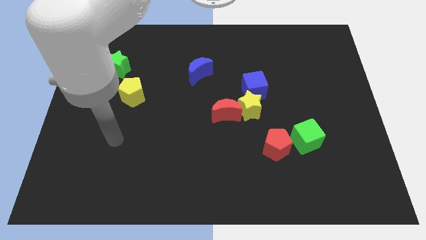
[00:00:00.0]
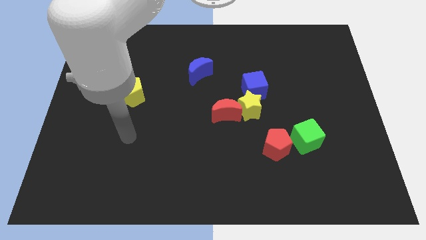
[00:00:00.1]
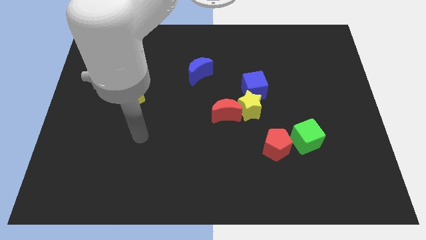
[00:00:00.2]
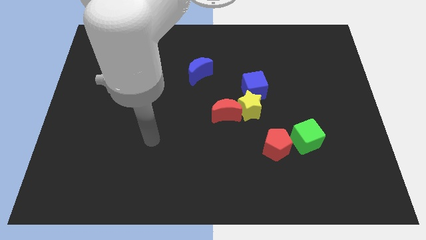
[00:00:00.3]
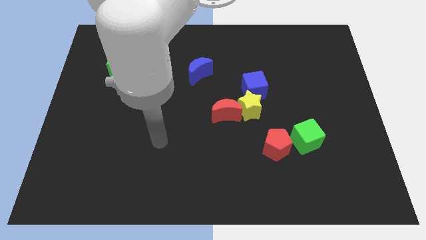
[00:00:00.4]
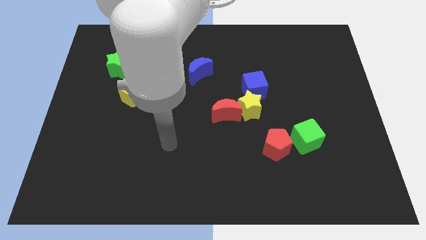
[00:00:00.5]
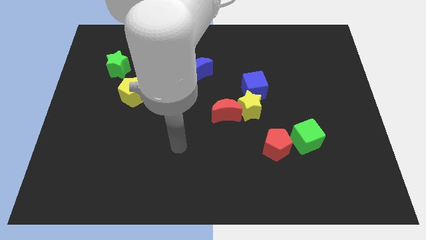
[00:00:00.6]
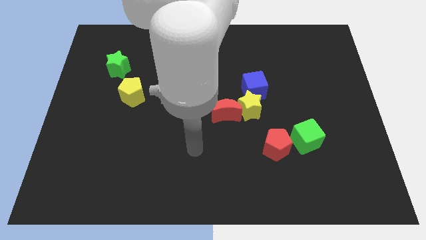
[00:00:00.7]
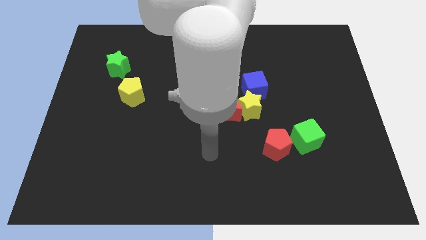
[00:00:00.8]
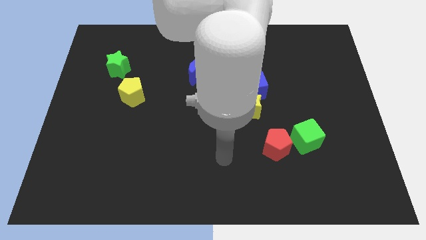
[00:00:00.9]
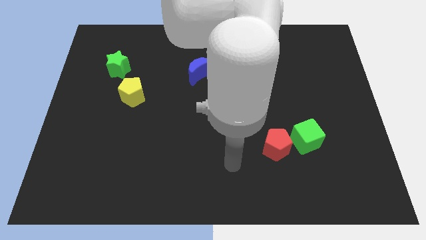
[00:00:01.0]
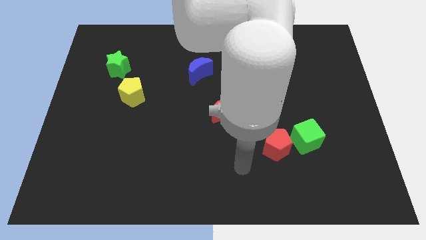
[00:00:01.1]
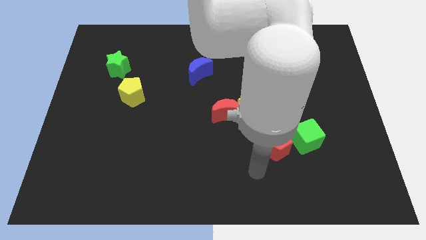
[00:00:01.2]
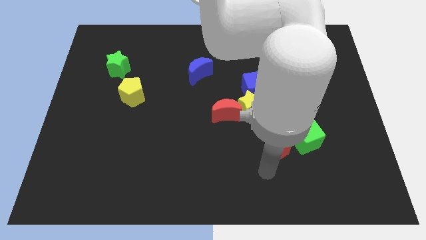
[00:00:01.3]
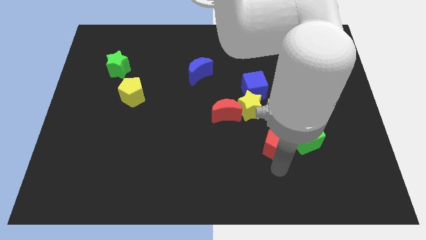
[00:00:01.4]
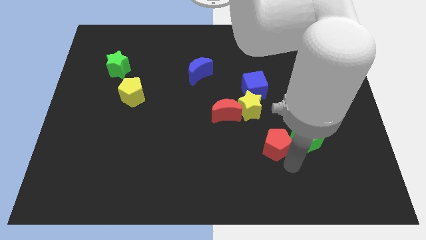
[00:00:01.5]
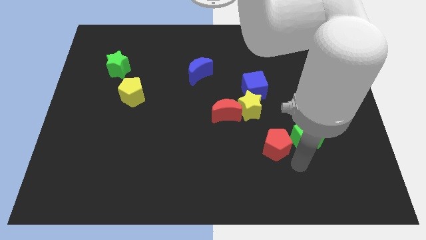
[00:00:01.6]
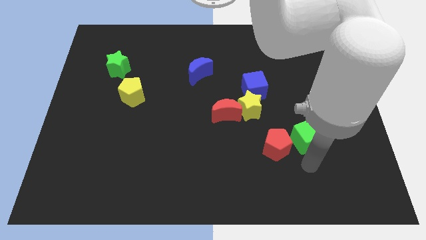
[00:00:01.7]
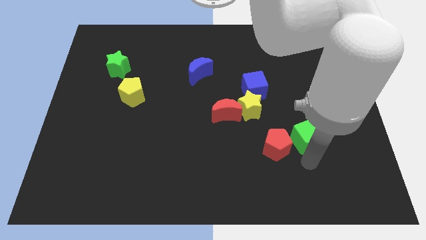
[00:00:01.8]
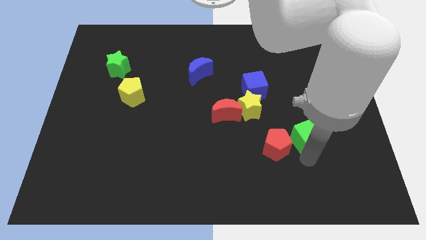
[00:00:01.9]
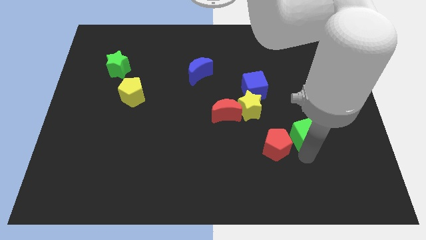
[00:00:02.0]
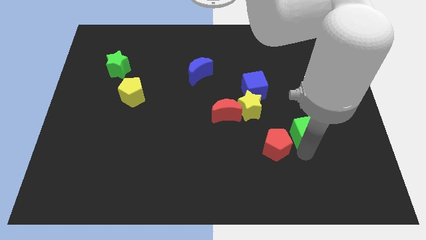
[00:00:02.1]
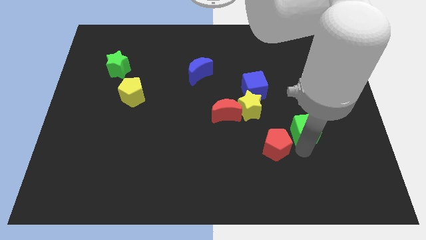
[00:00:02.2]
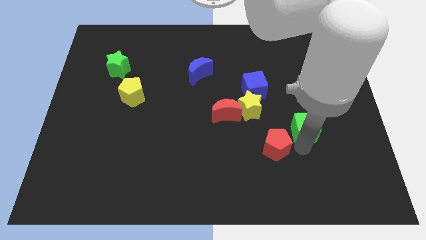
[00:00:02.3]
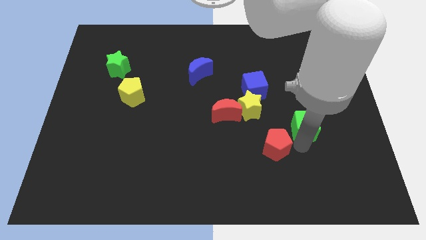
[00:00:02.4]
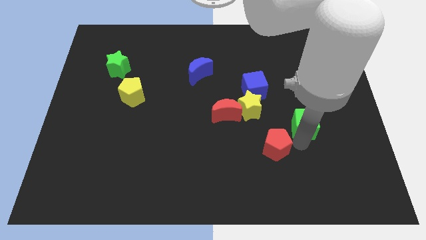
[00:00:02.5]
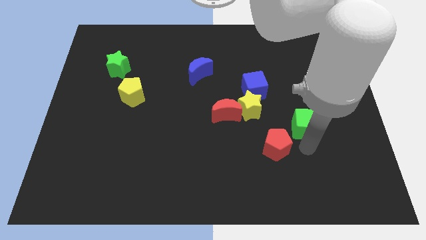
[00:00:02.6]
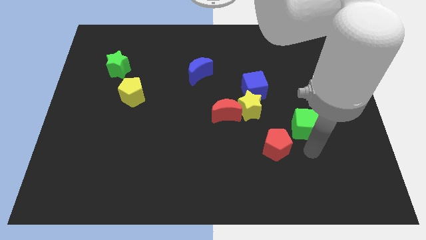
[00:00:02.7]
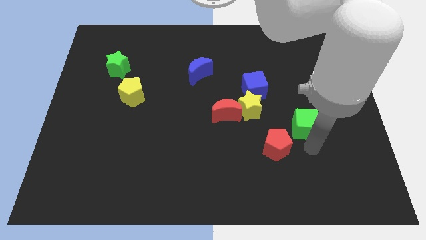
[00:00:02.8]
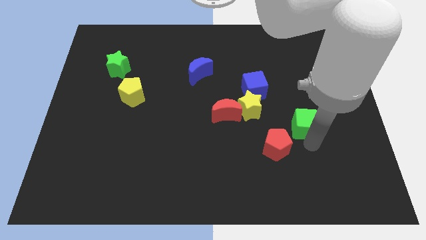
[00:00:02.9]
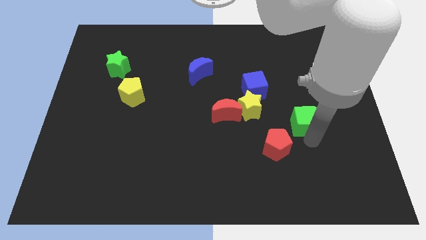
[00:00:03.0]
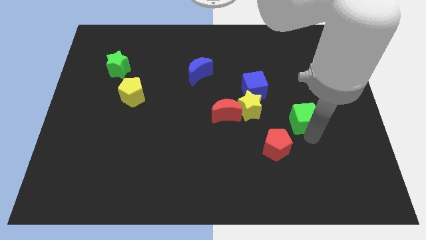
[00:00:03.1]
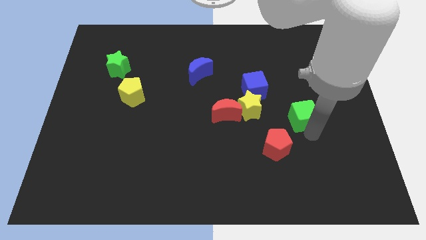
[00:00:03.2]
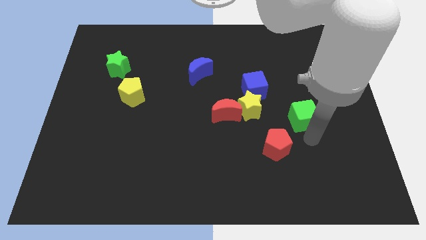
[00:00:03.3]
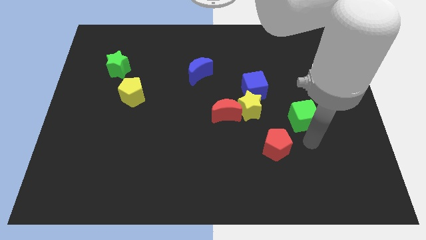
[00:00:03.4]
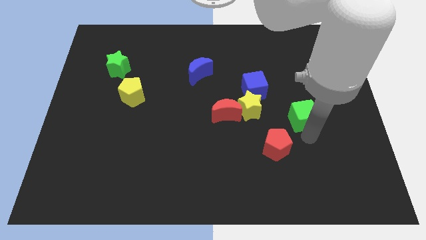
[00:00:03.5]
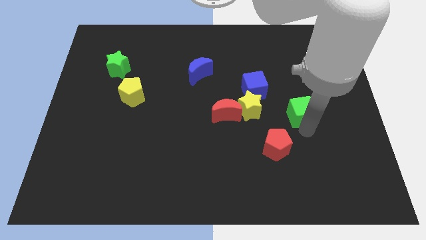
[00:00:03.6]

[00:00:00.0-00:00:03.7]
slightly push the green cube upwards

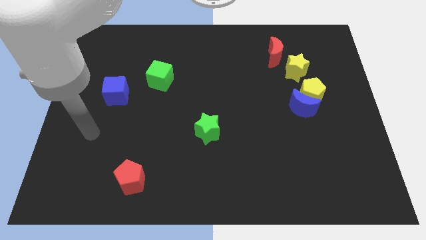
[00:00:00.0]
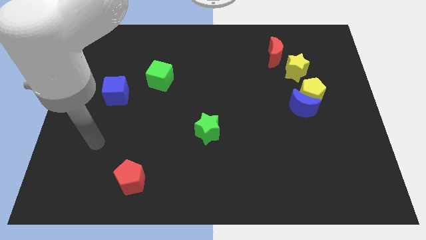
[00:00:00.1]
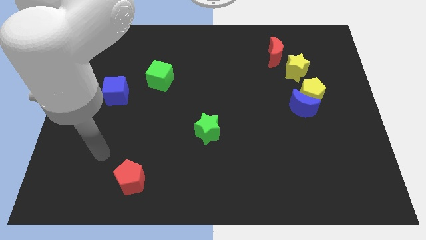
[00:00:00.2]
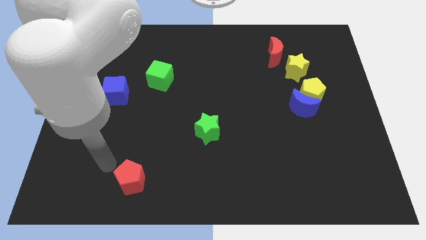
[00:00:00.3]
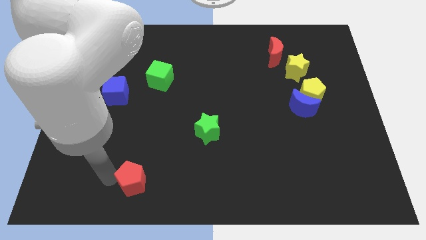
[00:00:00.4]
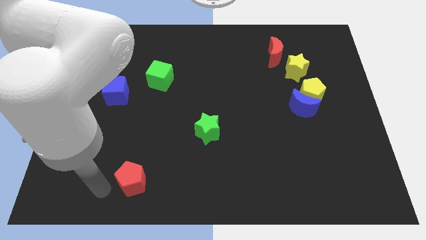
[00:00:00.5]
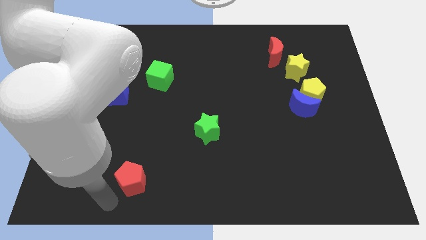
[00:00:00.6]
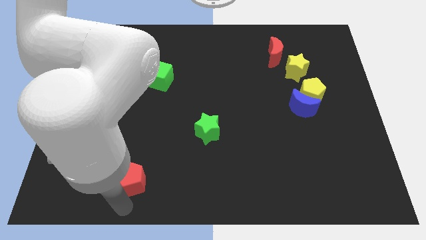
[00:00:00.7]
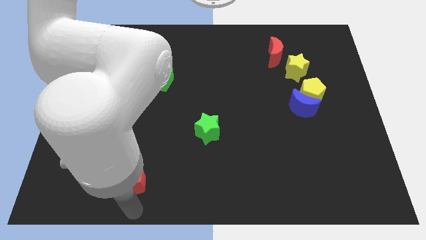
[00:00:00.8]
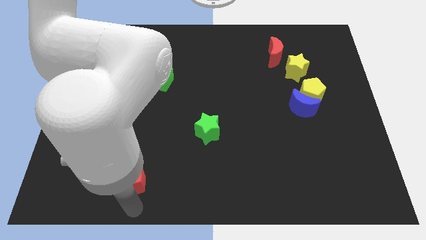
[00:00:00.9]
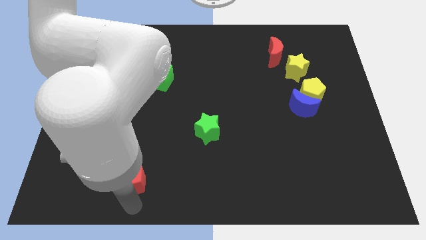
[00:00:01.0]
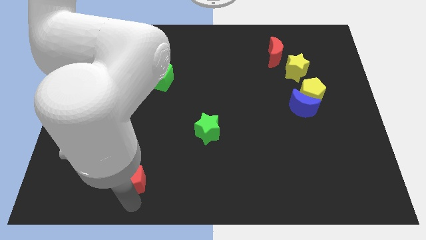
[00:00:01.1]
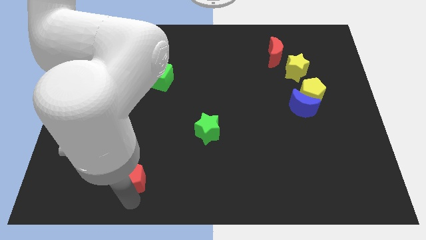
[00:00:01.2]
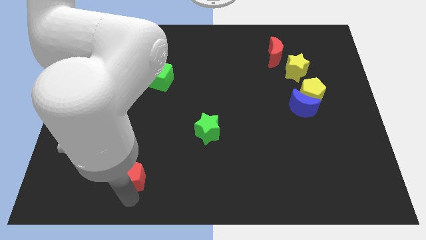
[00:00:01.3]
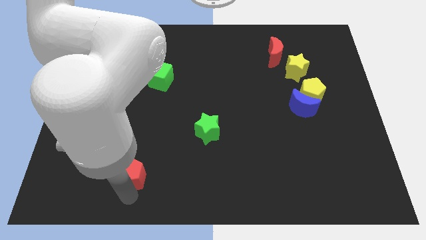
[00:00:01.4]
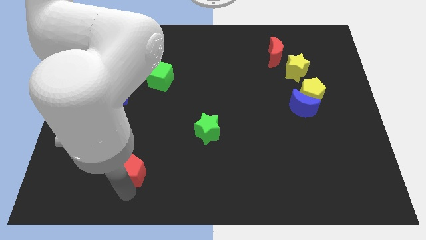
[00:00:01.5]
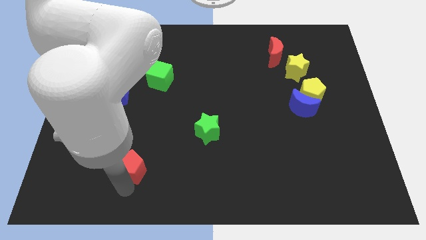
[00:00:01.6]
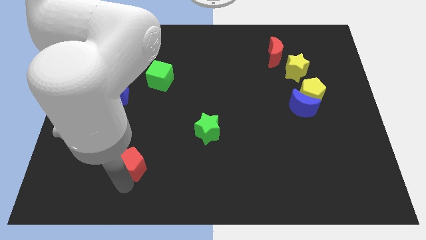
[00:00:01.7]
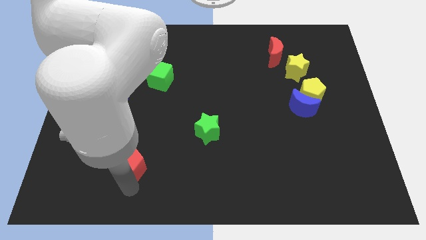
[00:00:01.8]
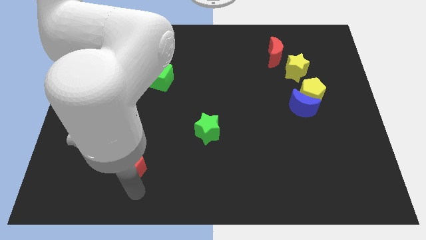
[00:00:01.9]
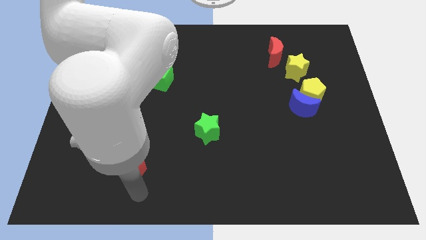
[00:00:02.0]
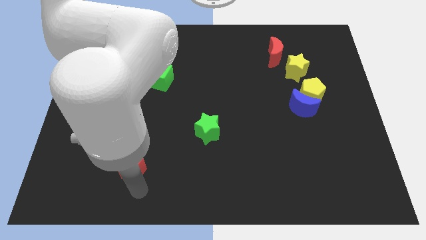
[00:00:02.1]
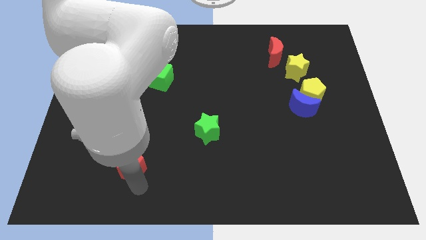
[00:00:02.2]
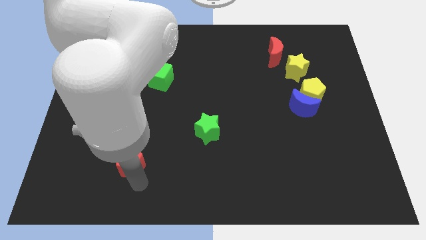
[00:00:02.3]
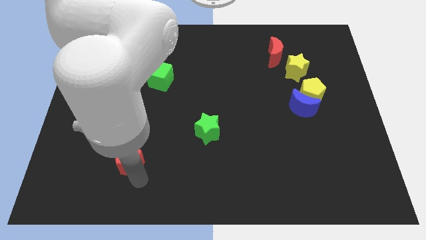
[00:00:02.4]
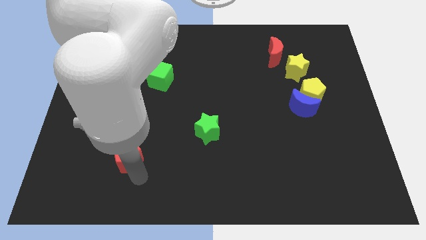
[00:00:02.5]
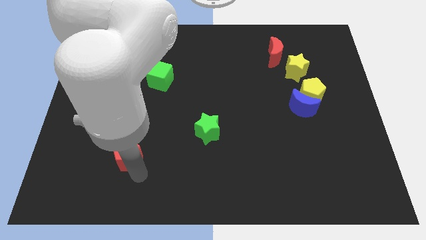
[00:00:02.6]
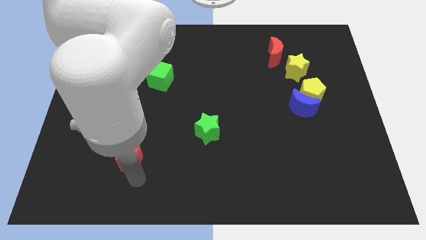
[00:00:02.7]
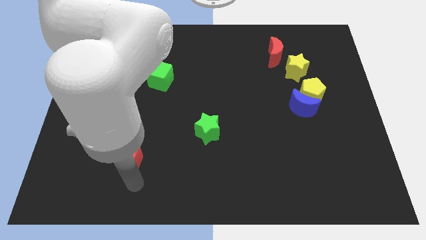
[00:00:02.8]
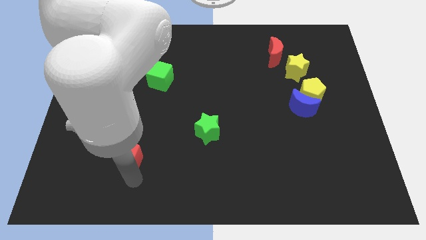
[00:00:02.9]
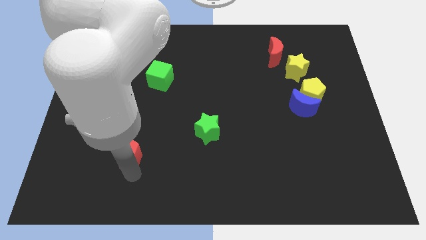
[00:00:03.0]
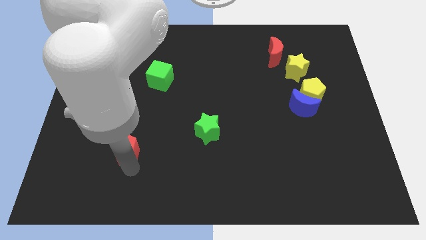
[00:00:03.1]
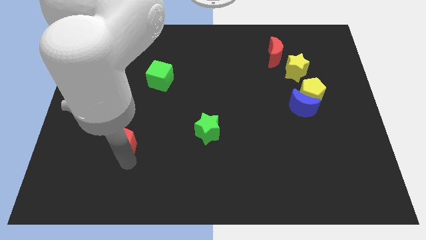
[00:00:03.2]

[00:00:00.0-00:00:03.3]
push the red pentagon somewhat upwards

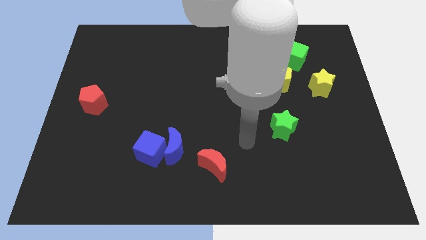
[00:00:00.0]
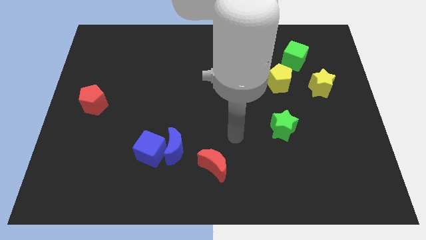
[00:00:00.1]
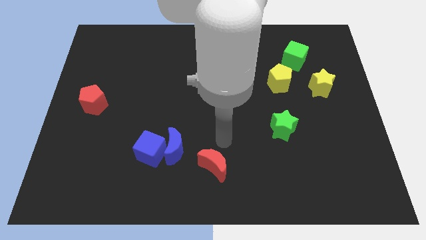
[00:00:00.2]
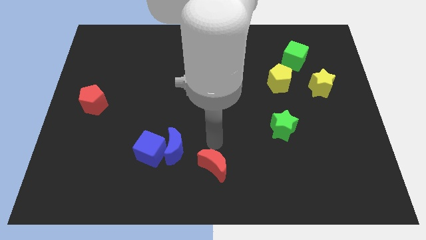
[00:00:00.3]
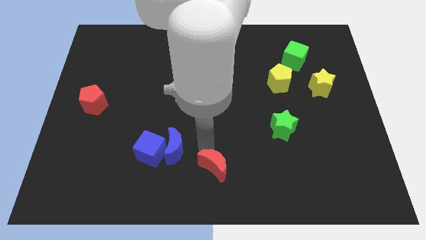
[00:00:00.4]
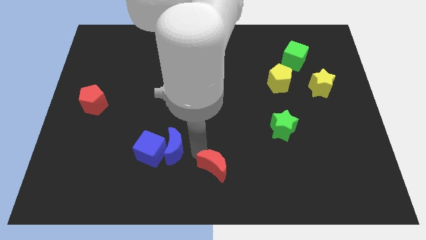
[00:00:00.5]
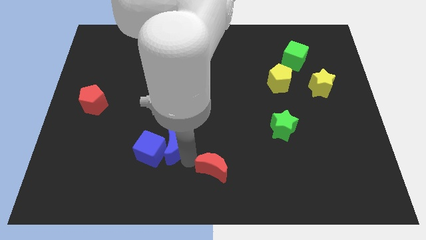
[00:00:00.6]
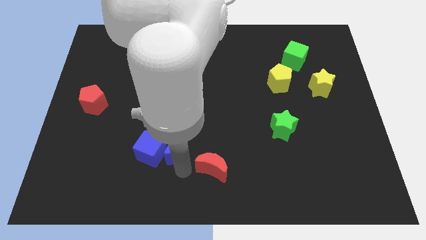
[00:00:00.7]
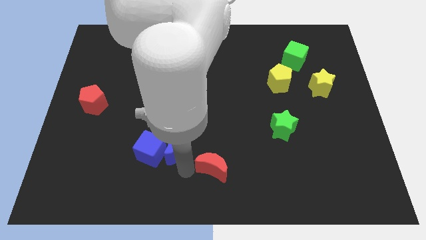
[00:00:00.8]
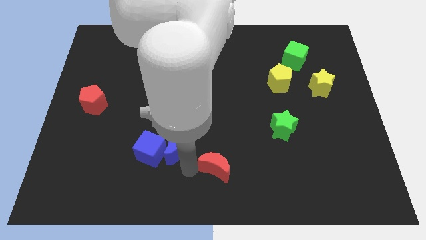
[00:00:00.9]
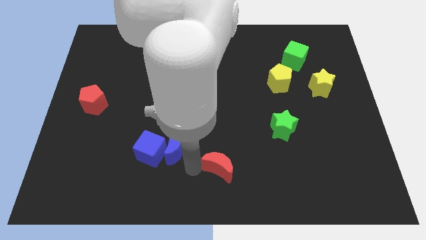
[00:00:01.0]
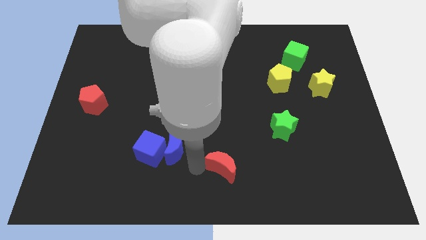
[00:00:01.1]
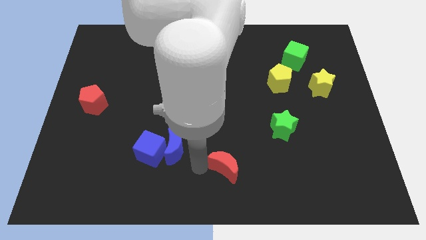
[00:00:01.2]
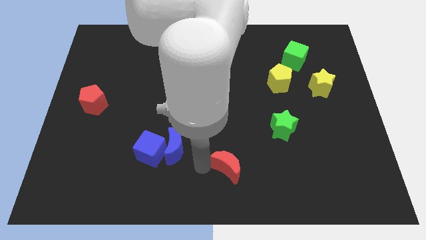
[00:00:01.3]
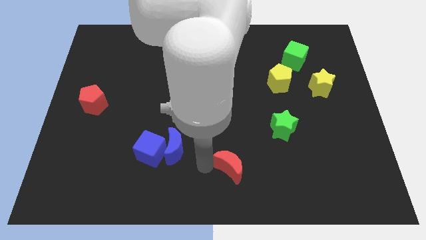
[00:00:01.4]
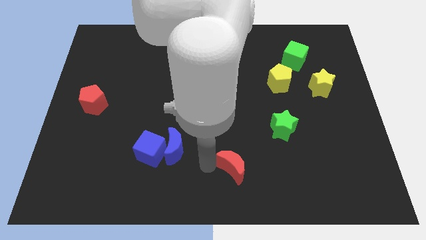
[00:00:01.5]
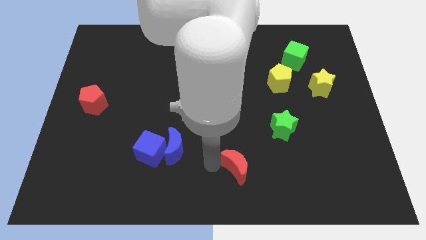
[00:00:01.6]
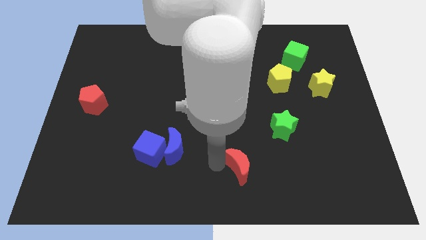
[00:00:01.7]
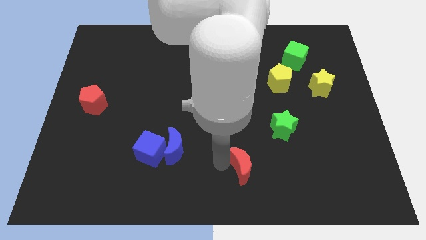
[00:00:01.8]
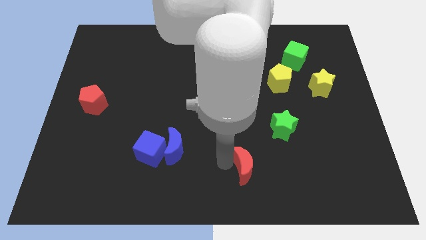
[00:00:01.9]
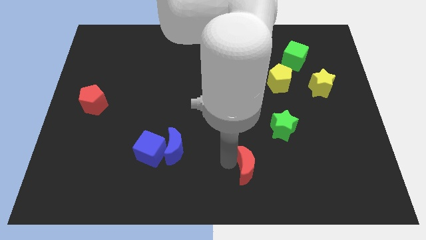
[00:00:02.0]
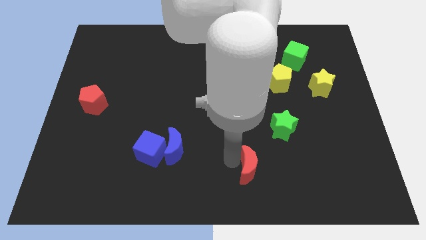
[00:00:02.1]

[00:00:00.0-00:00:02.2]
push the red moon slightly right
